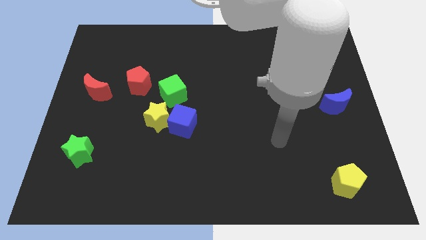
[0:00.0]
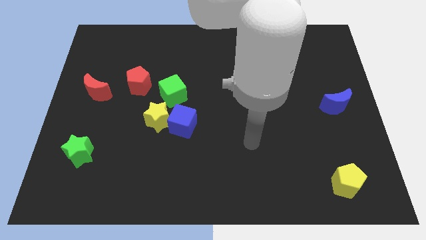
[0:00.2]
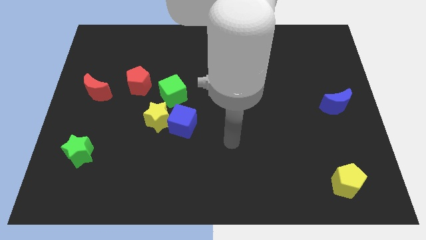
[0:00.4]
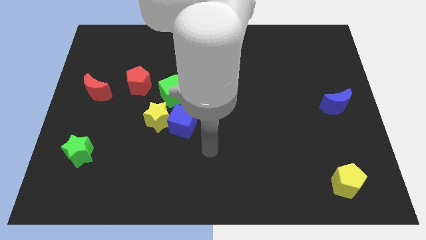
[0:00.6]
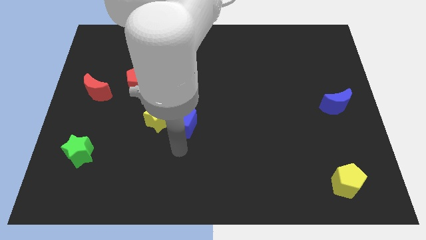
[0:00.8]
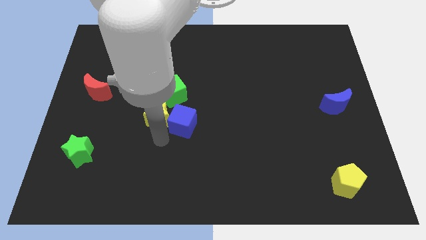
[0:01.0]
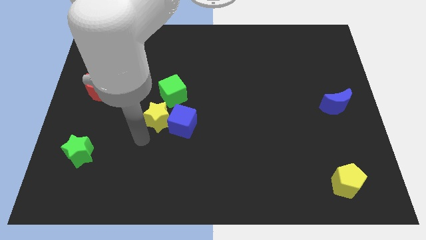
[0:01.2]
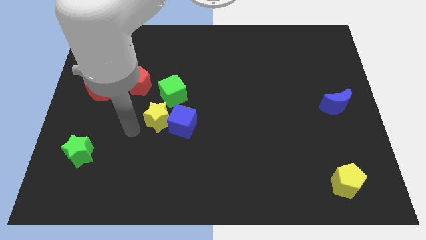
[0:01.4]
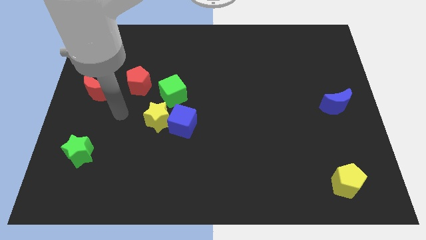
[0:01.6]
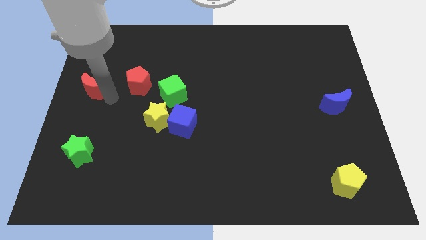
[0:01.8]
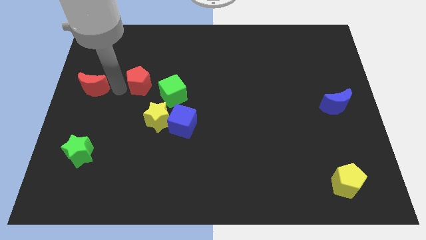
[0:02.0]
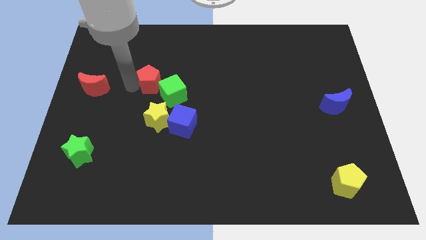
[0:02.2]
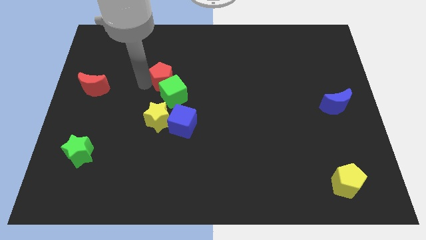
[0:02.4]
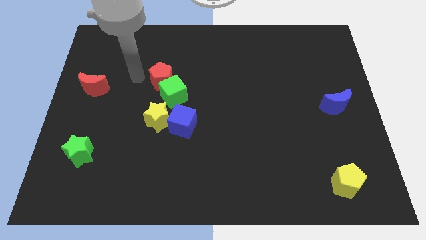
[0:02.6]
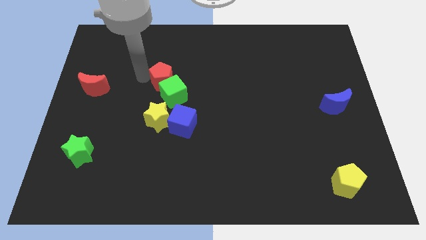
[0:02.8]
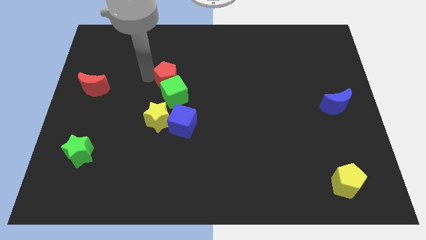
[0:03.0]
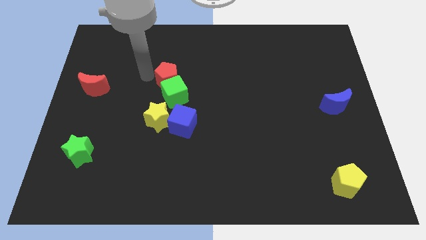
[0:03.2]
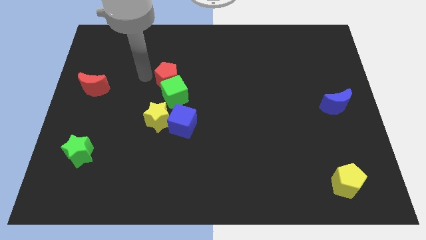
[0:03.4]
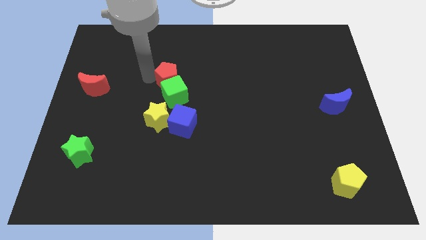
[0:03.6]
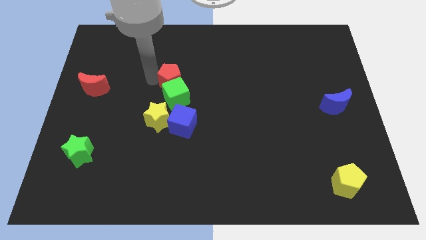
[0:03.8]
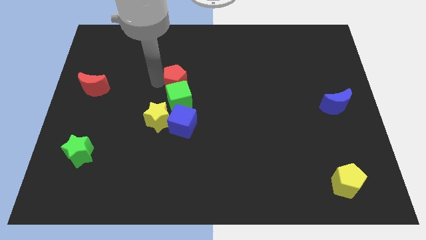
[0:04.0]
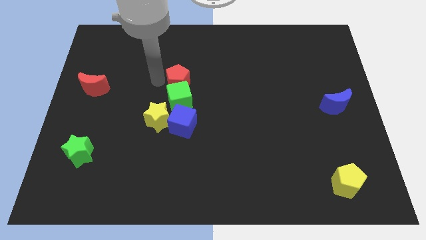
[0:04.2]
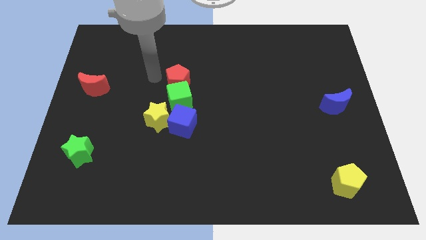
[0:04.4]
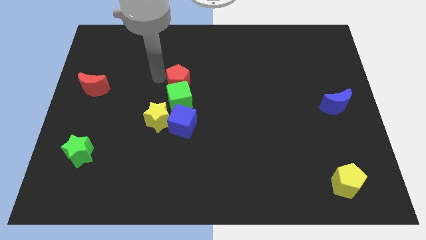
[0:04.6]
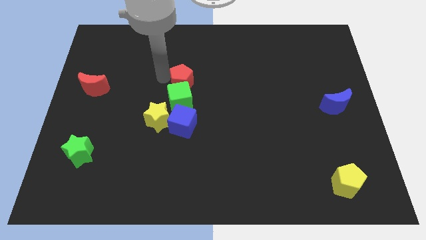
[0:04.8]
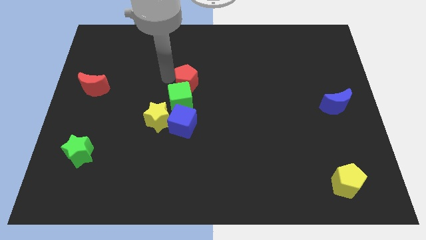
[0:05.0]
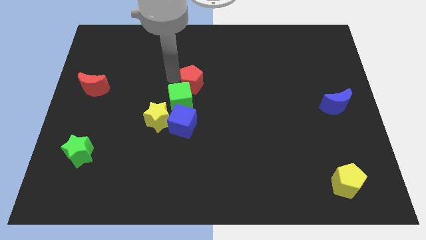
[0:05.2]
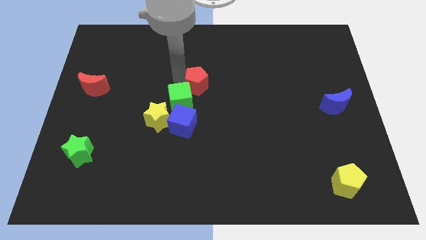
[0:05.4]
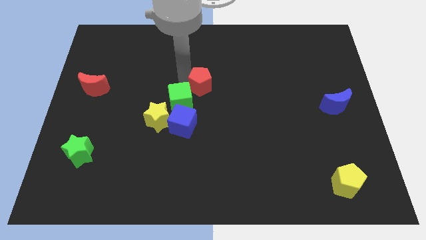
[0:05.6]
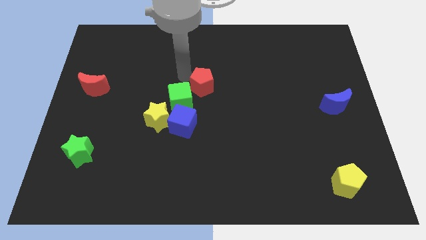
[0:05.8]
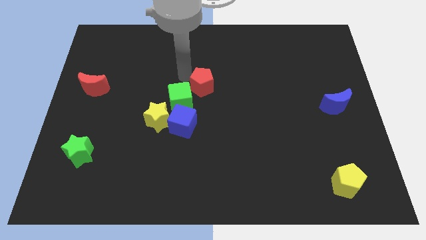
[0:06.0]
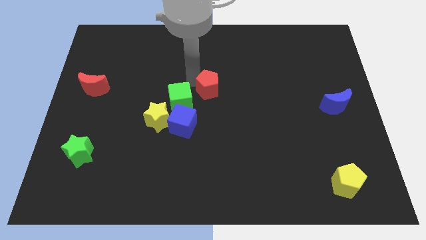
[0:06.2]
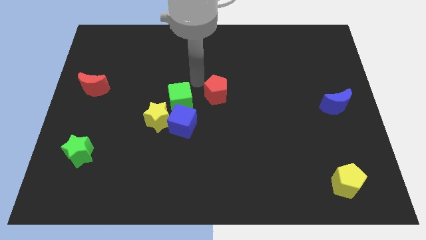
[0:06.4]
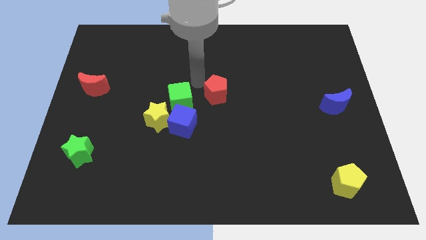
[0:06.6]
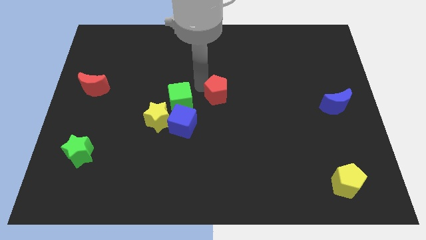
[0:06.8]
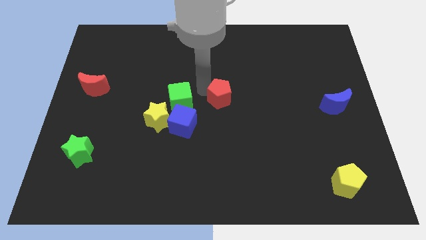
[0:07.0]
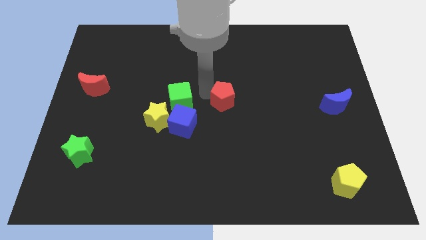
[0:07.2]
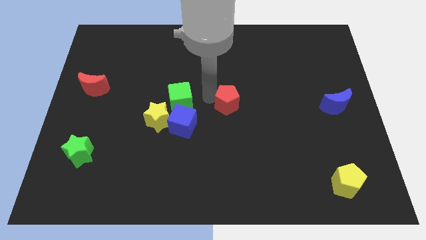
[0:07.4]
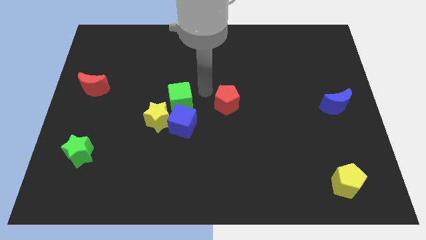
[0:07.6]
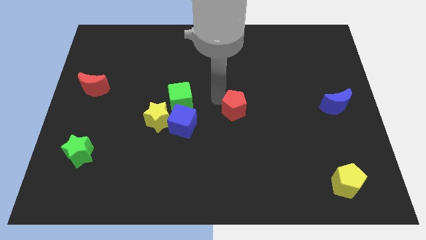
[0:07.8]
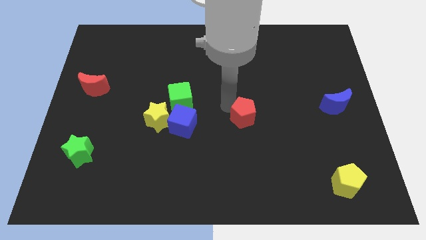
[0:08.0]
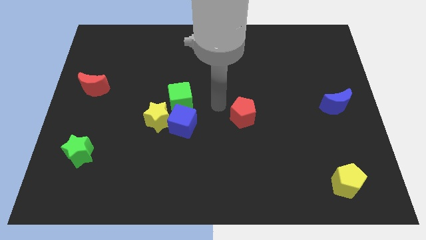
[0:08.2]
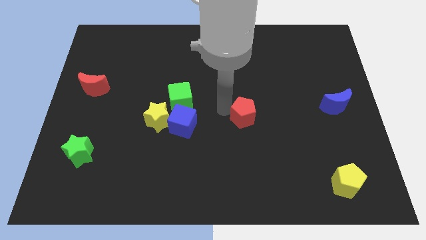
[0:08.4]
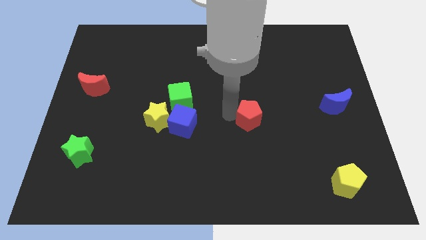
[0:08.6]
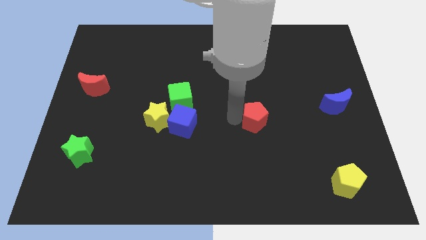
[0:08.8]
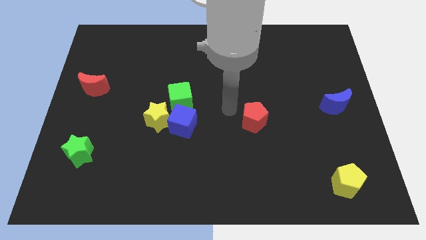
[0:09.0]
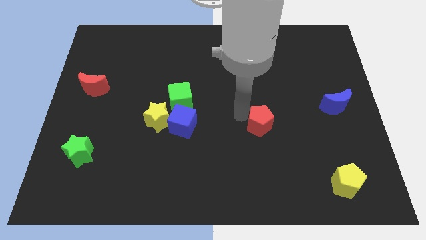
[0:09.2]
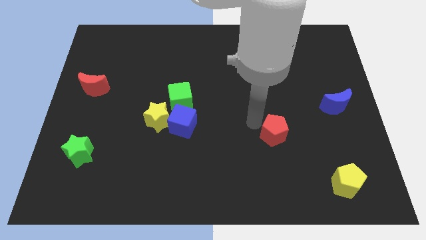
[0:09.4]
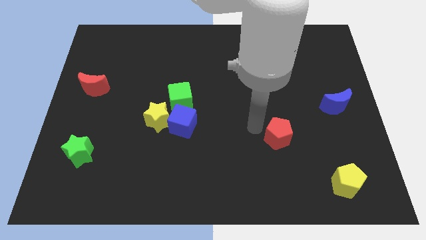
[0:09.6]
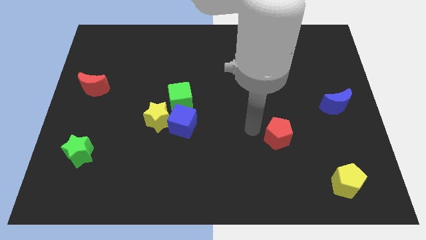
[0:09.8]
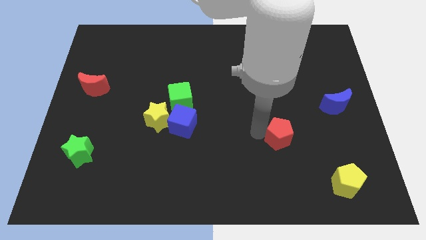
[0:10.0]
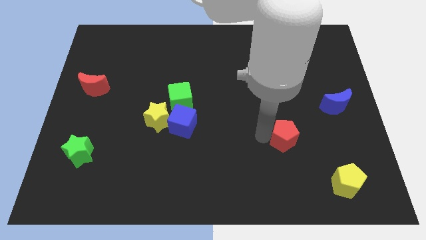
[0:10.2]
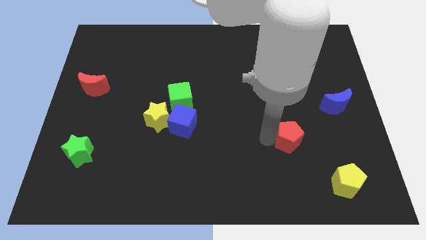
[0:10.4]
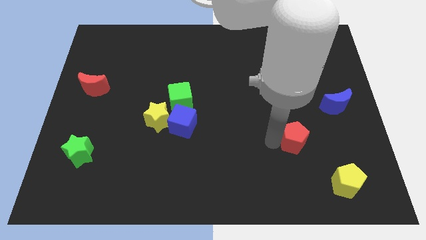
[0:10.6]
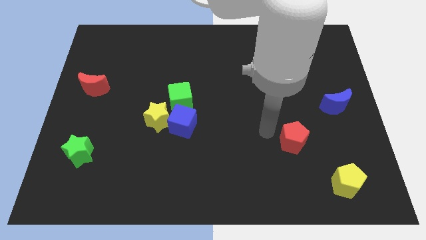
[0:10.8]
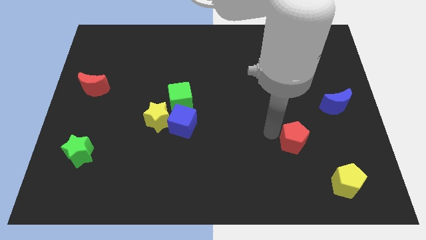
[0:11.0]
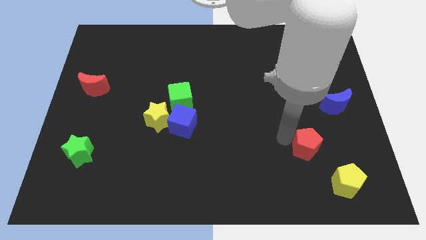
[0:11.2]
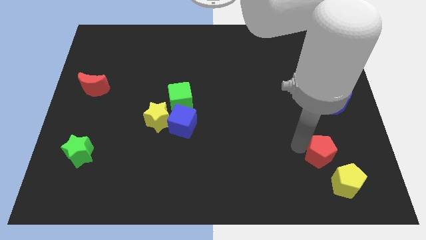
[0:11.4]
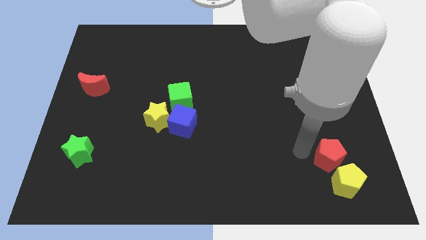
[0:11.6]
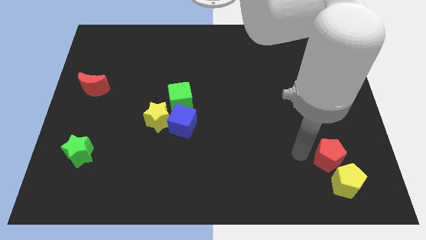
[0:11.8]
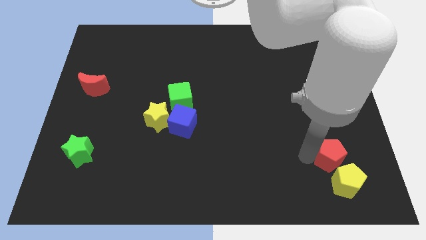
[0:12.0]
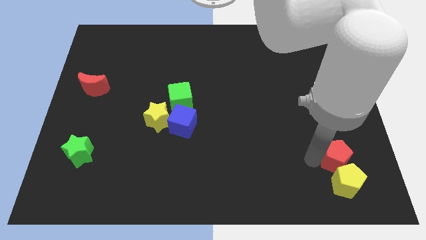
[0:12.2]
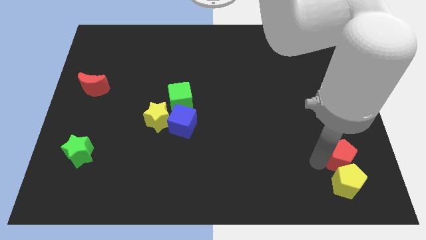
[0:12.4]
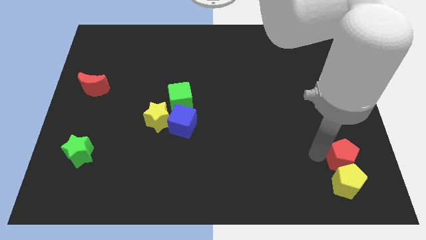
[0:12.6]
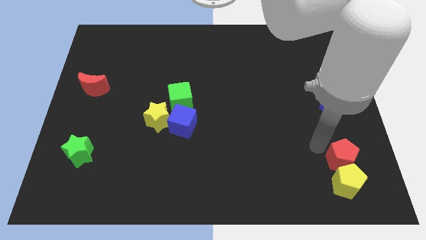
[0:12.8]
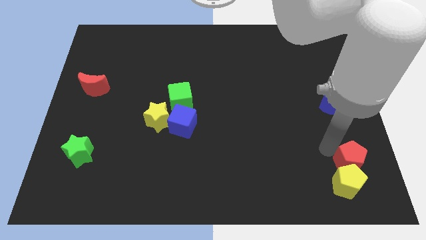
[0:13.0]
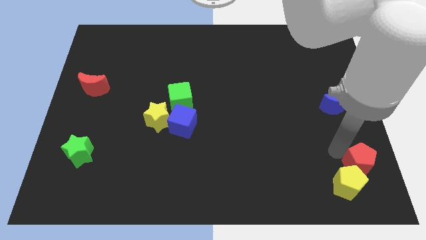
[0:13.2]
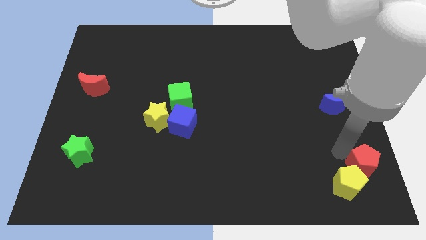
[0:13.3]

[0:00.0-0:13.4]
push the red pentagon to the bottom right of the board

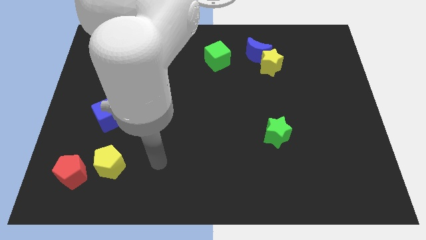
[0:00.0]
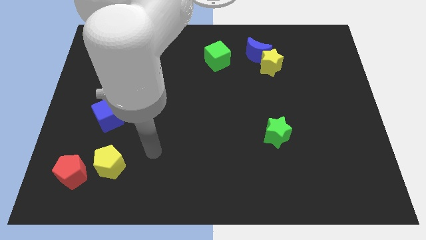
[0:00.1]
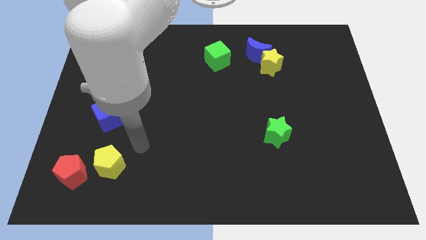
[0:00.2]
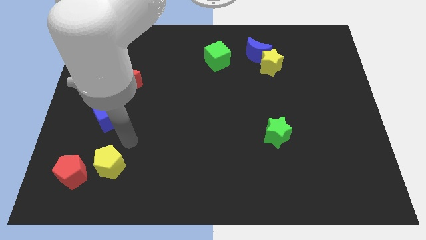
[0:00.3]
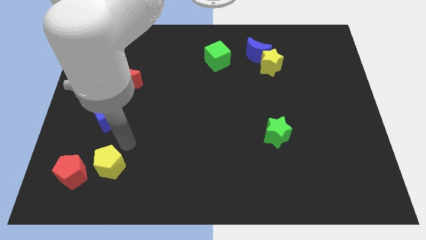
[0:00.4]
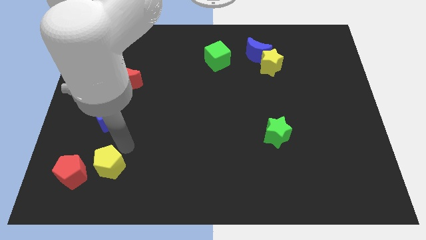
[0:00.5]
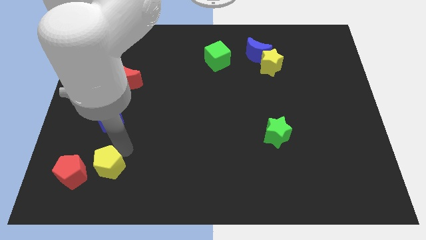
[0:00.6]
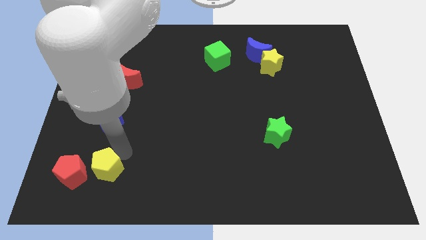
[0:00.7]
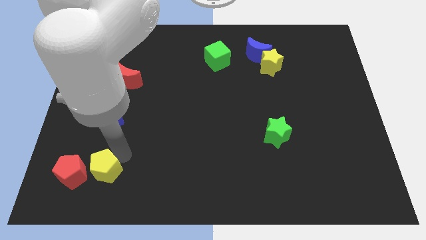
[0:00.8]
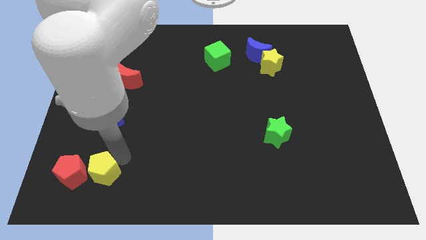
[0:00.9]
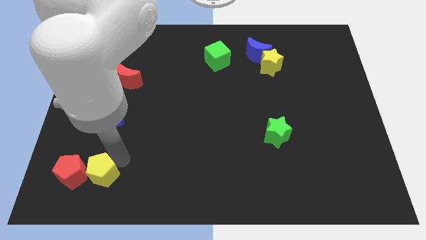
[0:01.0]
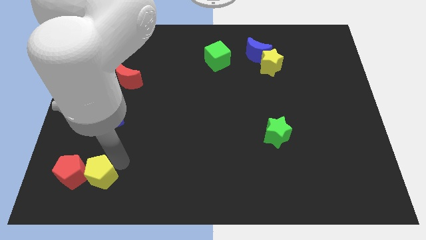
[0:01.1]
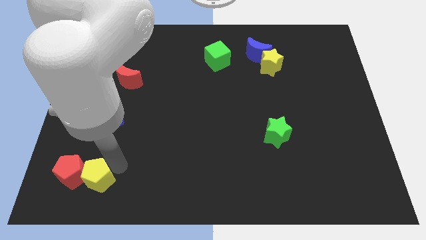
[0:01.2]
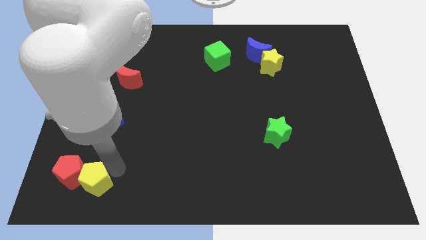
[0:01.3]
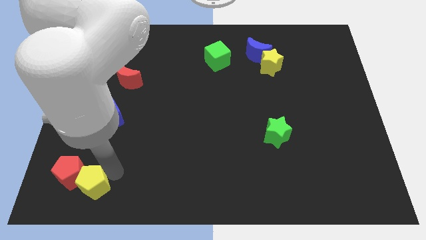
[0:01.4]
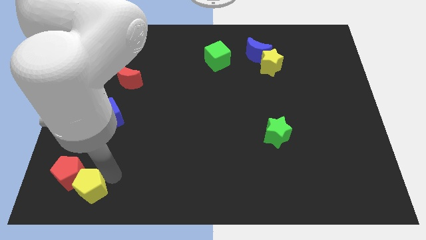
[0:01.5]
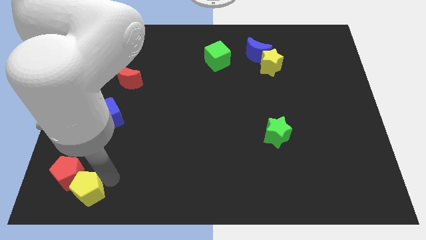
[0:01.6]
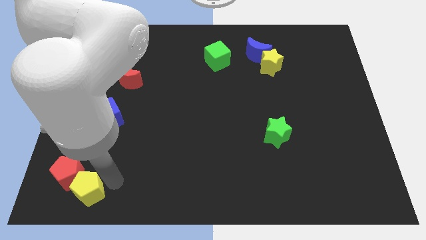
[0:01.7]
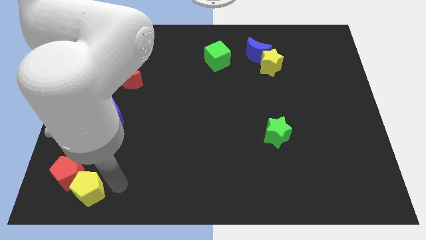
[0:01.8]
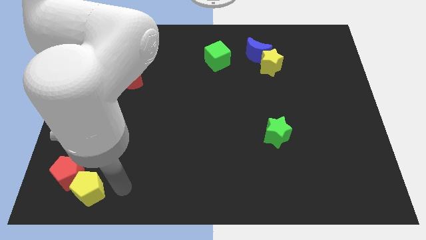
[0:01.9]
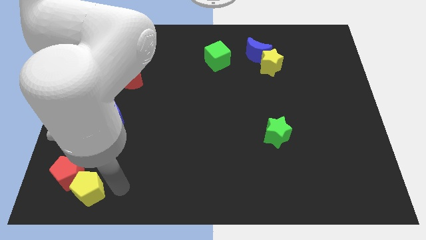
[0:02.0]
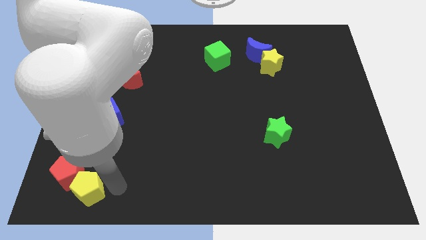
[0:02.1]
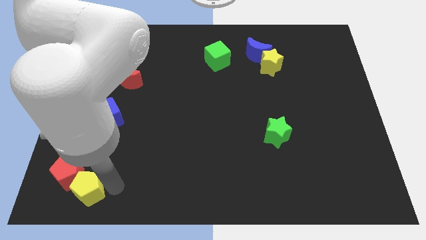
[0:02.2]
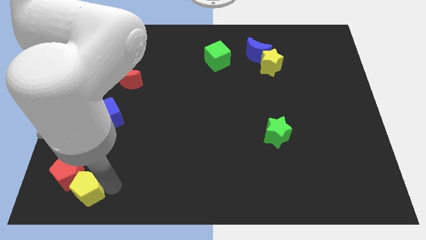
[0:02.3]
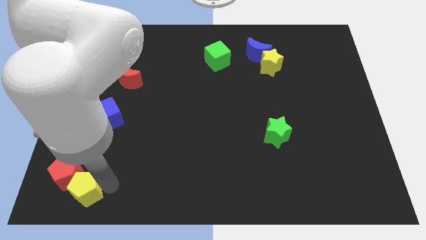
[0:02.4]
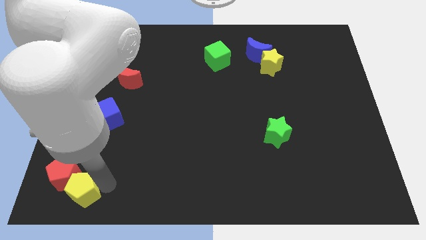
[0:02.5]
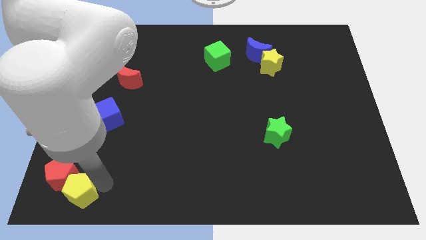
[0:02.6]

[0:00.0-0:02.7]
put the yellow pentagon to the bottom left of the board
